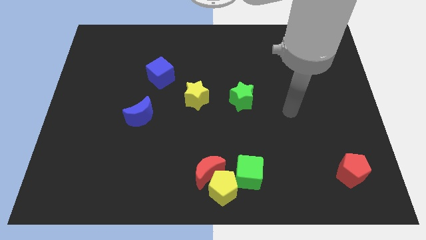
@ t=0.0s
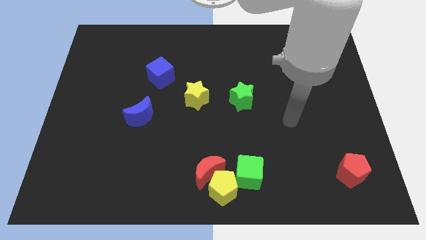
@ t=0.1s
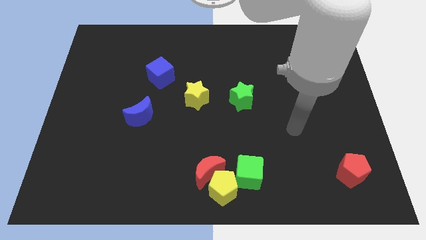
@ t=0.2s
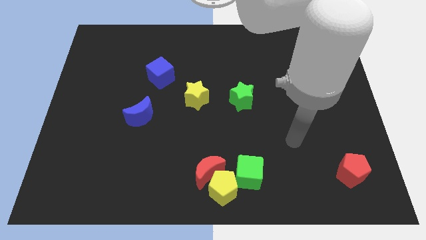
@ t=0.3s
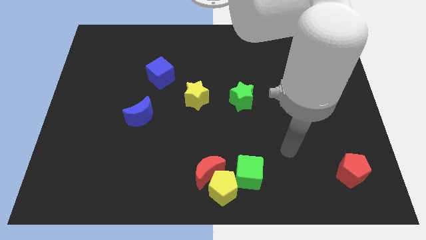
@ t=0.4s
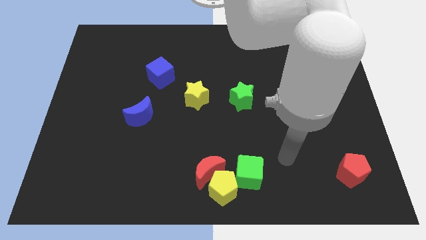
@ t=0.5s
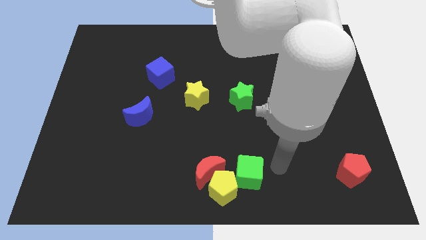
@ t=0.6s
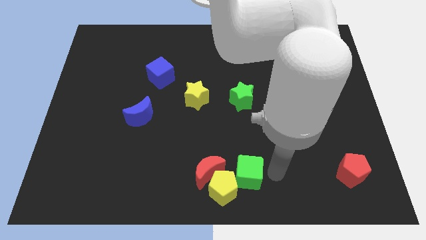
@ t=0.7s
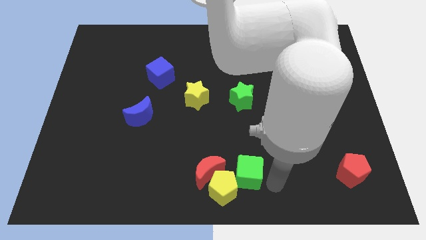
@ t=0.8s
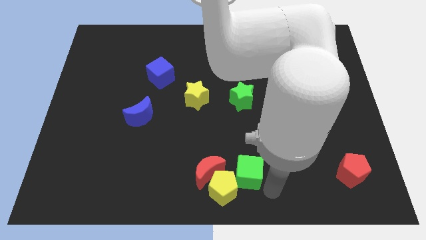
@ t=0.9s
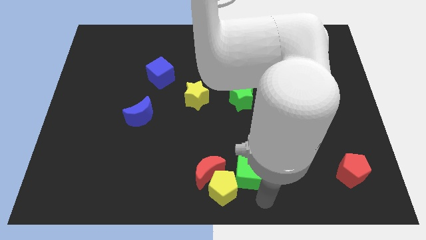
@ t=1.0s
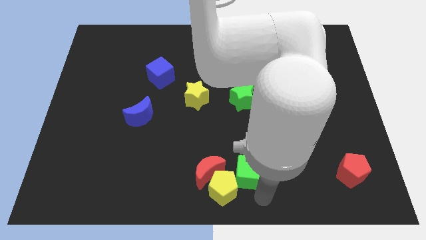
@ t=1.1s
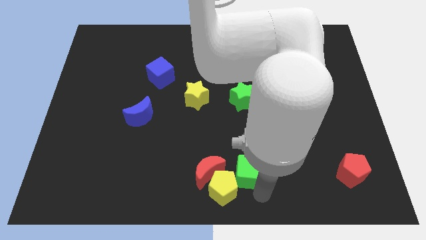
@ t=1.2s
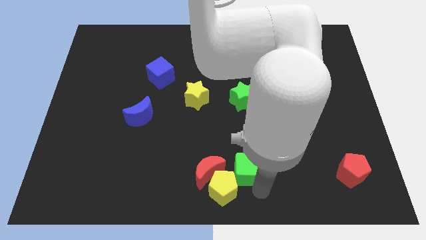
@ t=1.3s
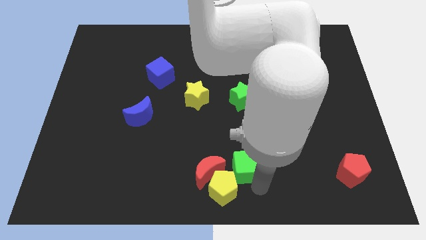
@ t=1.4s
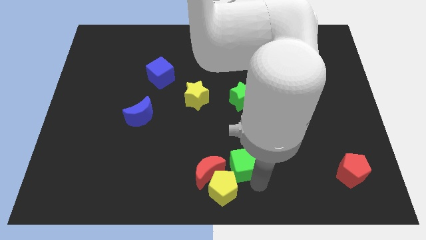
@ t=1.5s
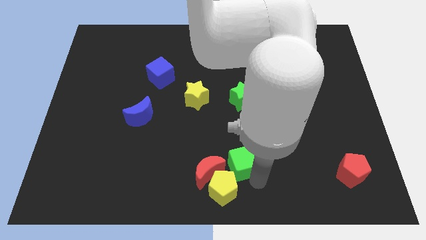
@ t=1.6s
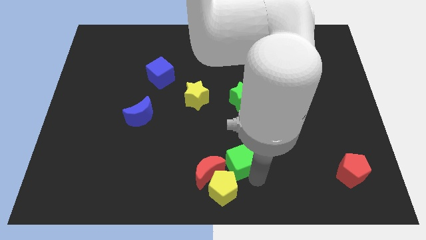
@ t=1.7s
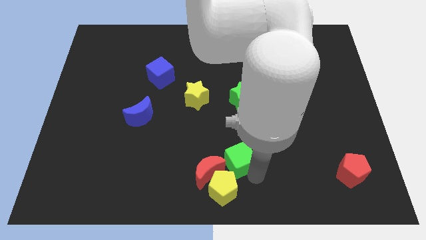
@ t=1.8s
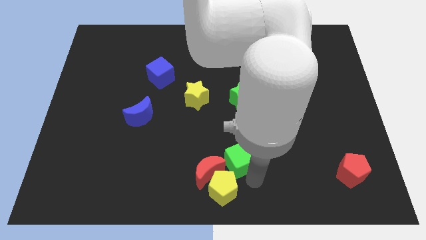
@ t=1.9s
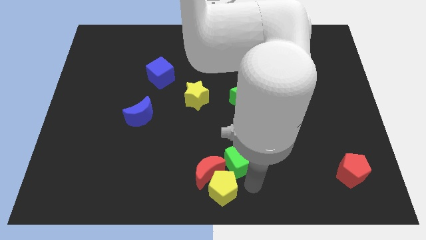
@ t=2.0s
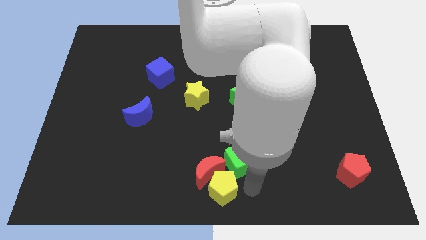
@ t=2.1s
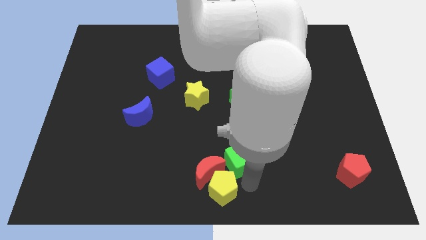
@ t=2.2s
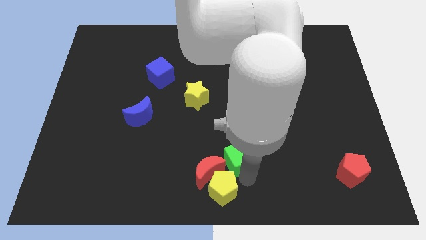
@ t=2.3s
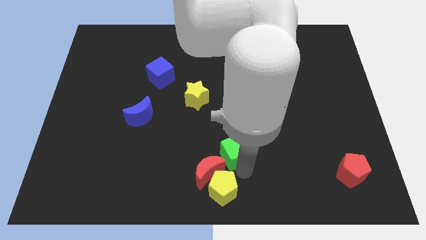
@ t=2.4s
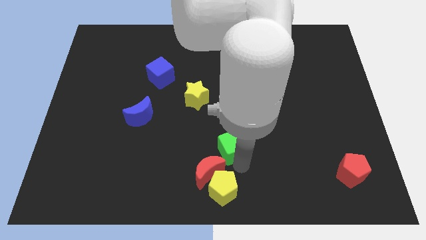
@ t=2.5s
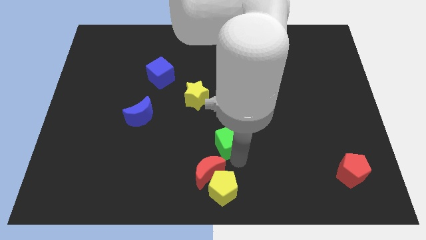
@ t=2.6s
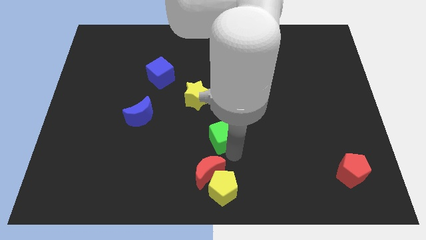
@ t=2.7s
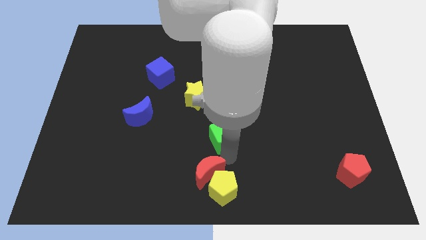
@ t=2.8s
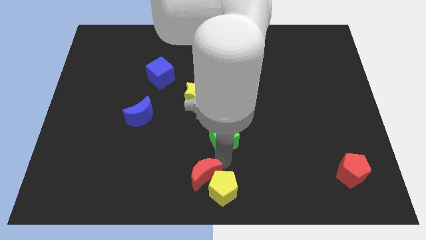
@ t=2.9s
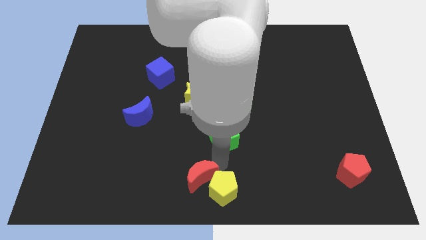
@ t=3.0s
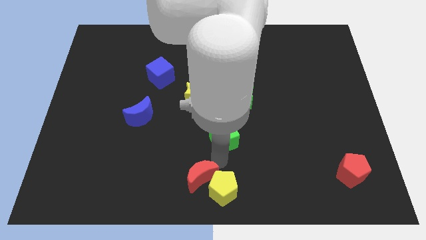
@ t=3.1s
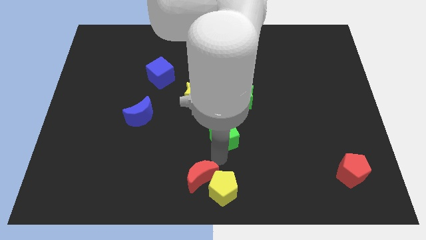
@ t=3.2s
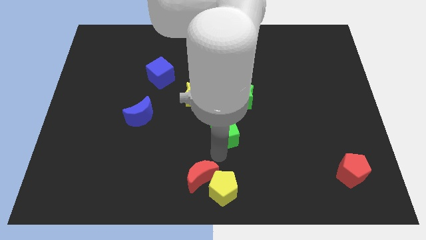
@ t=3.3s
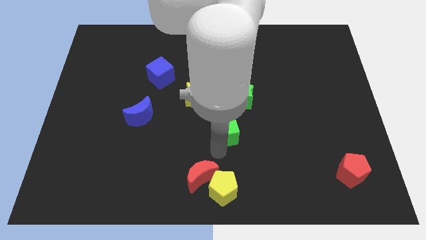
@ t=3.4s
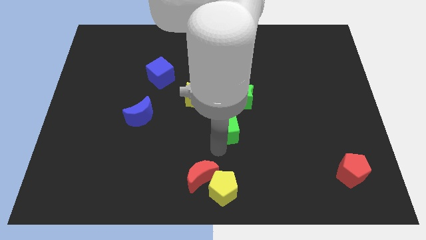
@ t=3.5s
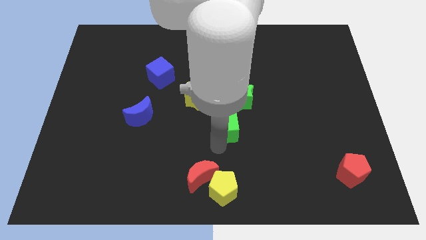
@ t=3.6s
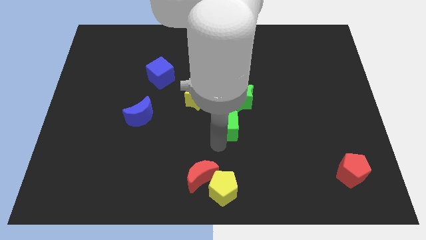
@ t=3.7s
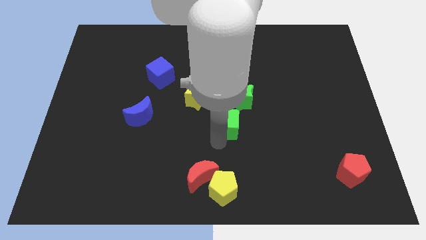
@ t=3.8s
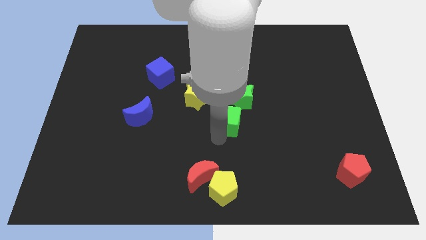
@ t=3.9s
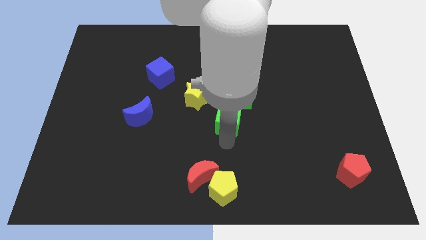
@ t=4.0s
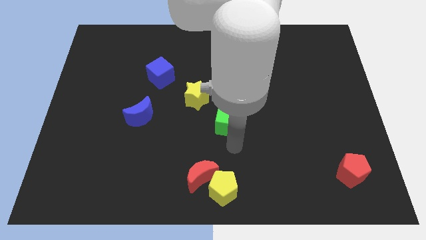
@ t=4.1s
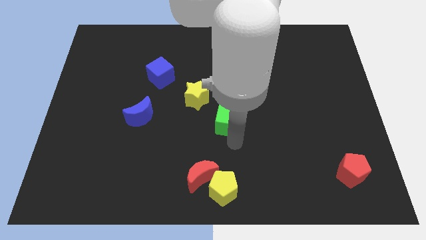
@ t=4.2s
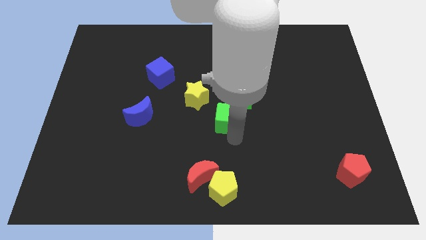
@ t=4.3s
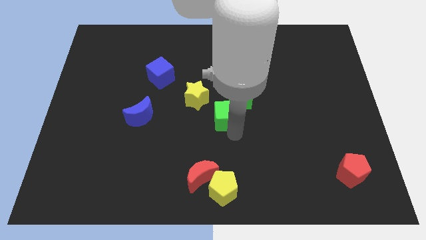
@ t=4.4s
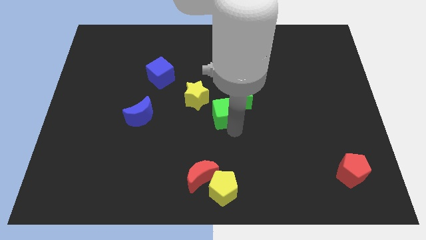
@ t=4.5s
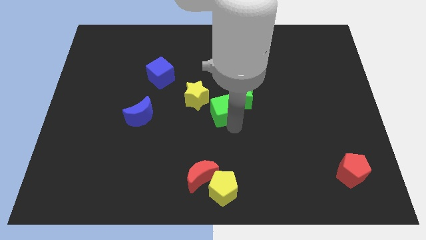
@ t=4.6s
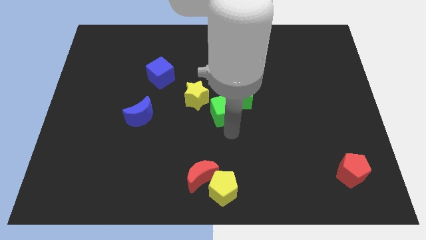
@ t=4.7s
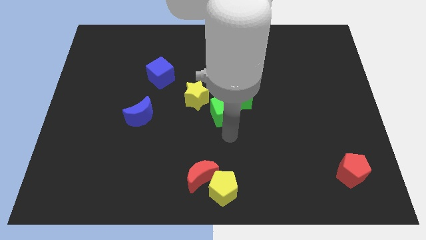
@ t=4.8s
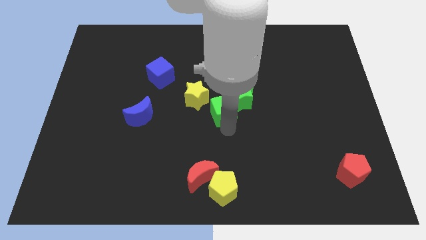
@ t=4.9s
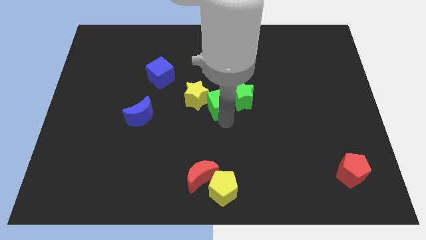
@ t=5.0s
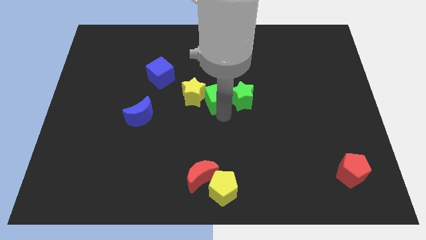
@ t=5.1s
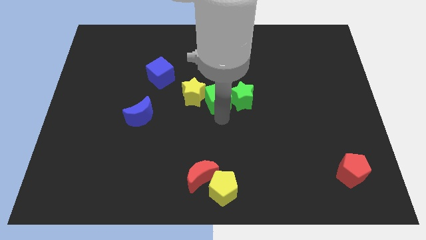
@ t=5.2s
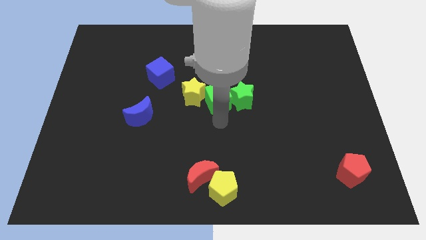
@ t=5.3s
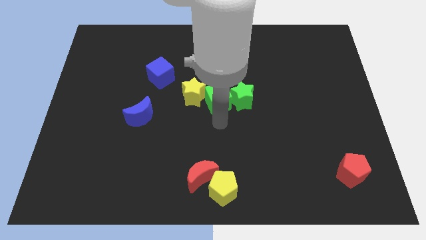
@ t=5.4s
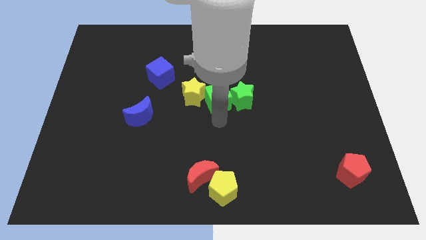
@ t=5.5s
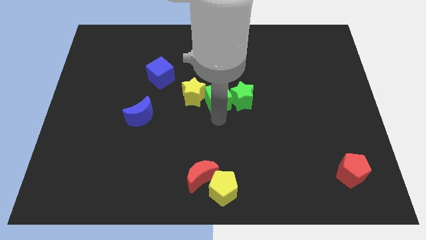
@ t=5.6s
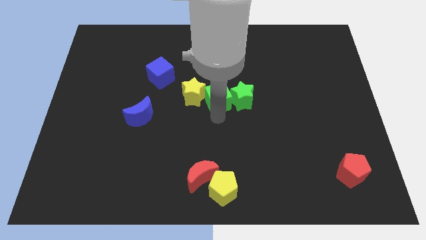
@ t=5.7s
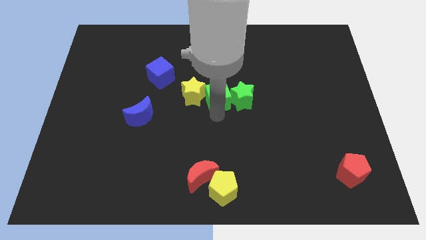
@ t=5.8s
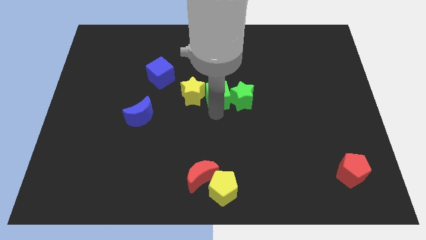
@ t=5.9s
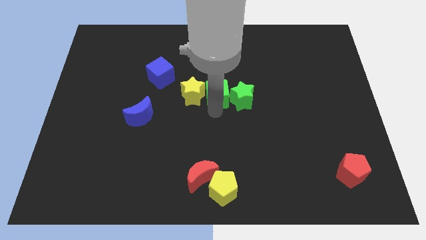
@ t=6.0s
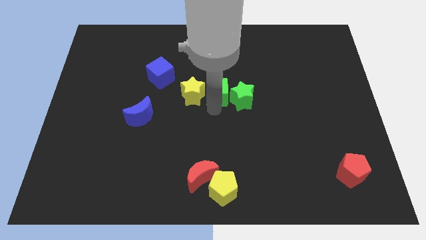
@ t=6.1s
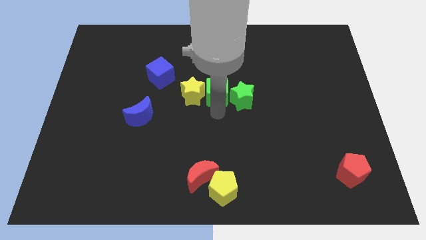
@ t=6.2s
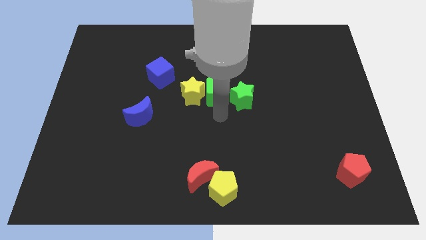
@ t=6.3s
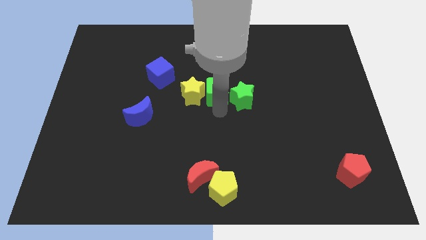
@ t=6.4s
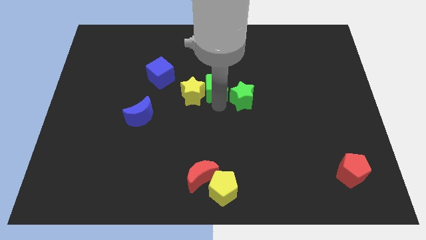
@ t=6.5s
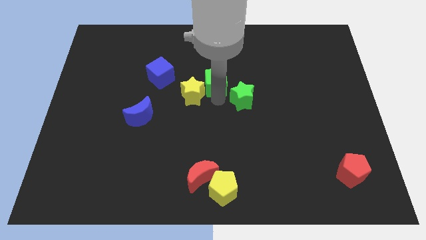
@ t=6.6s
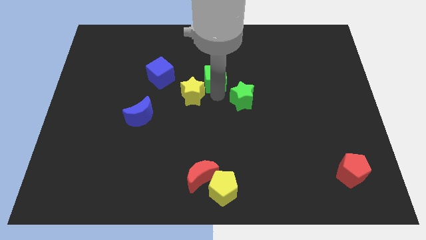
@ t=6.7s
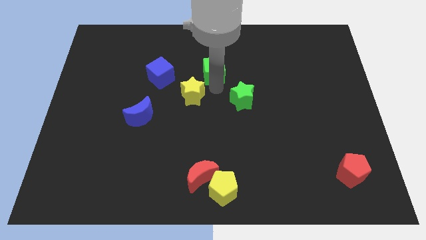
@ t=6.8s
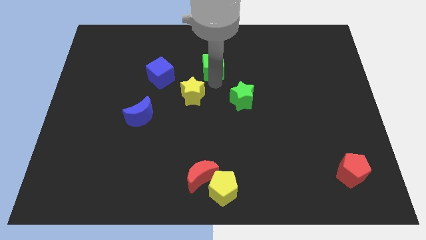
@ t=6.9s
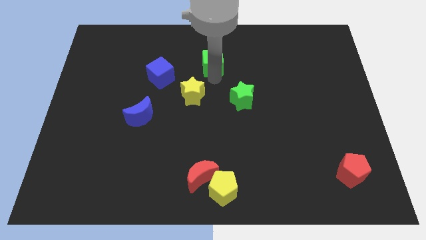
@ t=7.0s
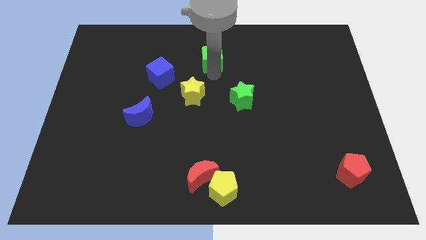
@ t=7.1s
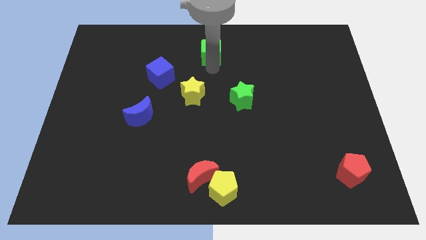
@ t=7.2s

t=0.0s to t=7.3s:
put the green cube to the towards your base
